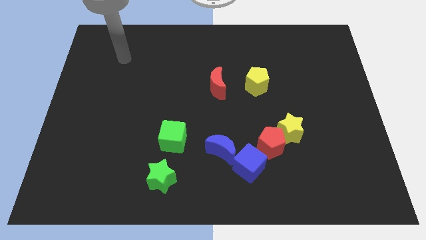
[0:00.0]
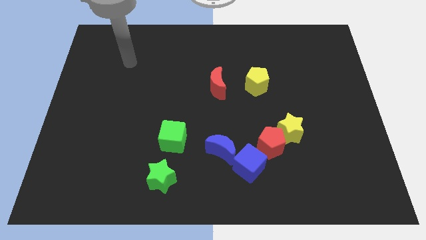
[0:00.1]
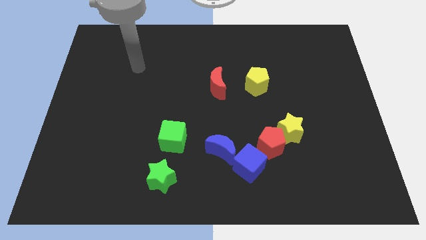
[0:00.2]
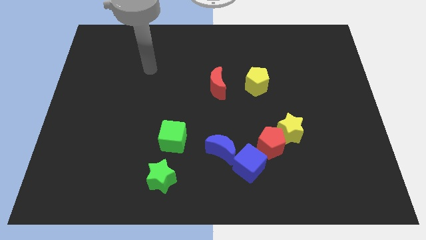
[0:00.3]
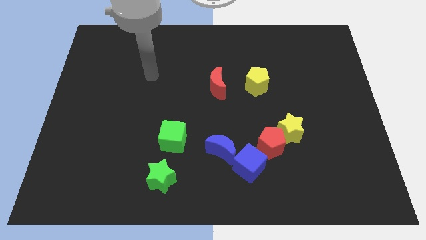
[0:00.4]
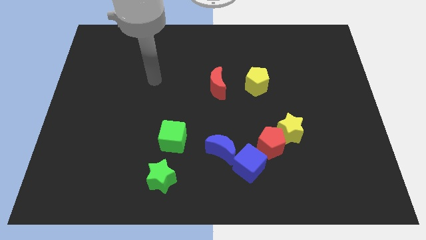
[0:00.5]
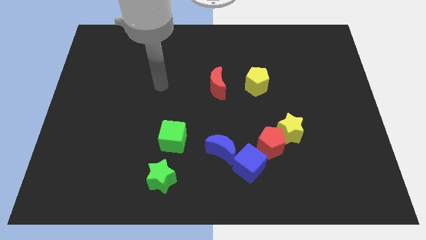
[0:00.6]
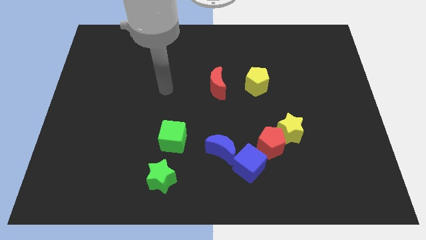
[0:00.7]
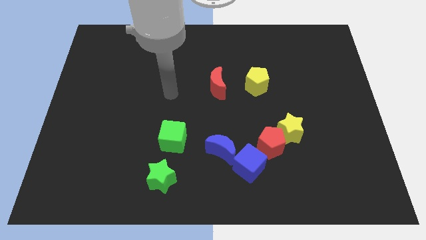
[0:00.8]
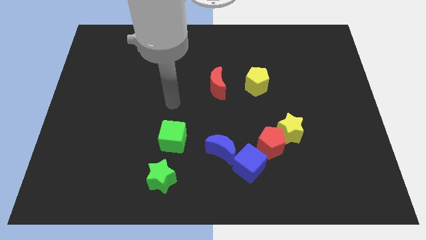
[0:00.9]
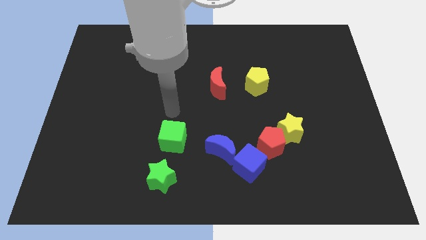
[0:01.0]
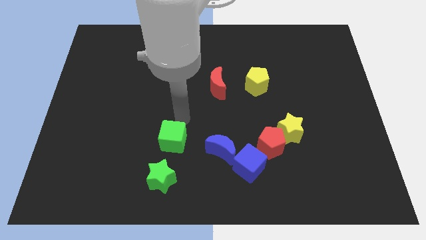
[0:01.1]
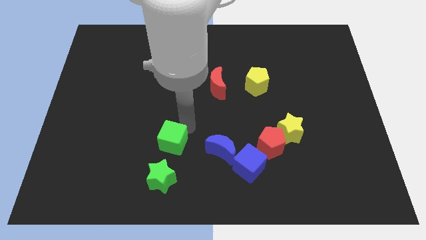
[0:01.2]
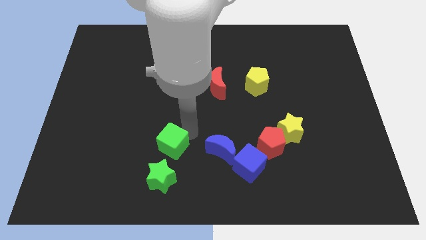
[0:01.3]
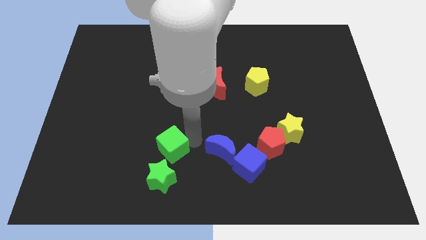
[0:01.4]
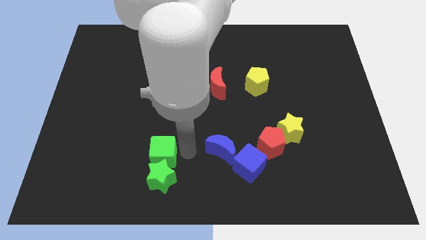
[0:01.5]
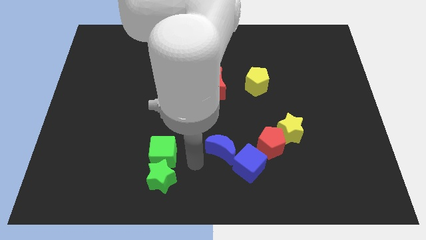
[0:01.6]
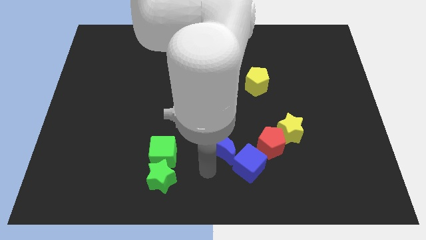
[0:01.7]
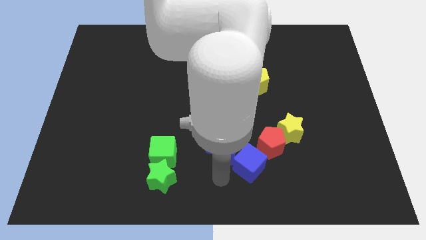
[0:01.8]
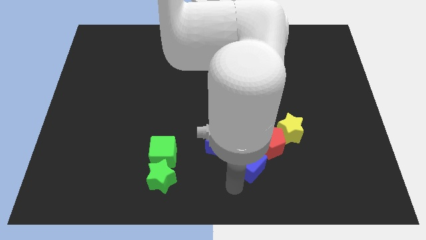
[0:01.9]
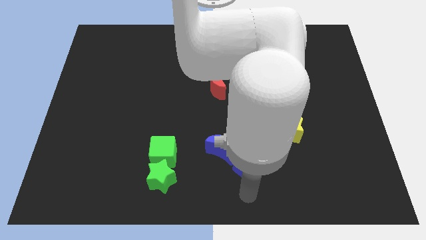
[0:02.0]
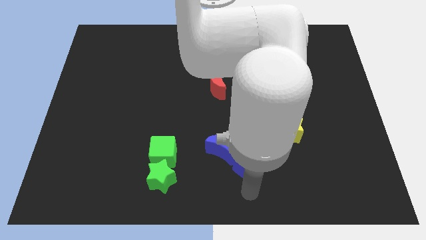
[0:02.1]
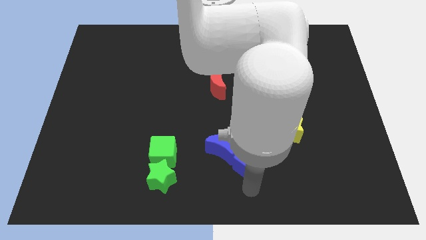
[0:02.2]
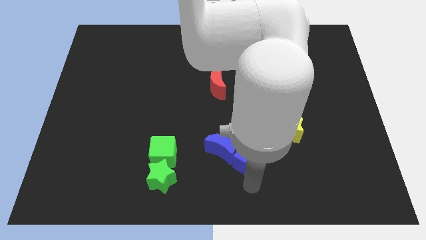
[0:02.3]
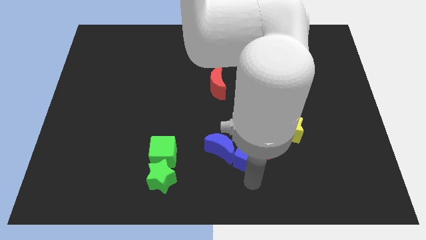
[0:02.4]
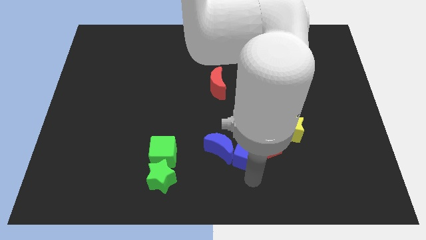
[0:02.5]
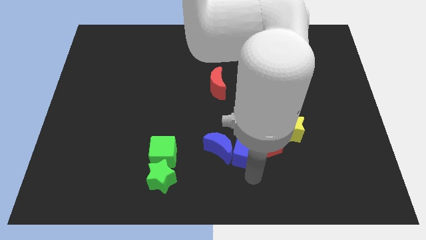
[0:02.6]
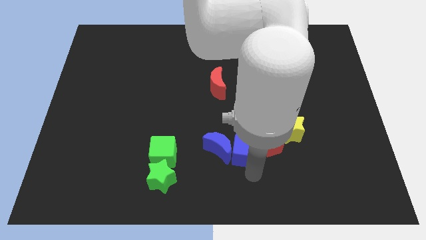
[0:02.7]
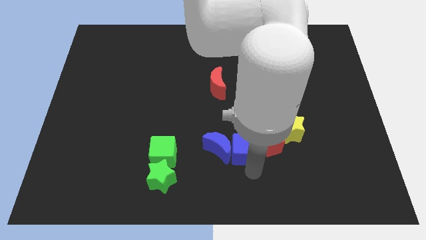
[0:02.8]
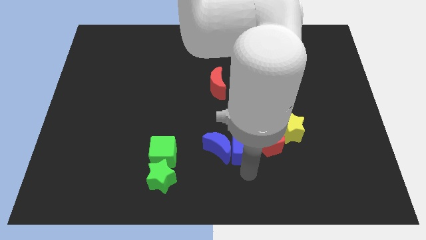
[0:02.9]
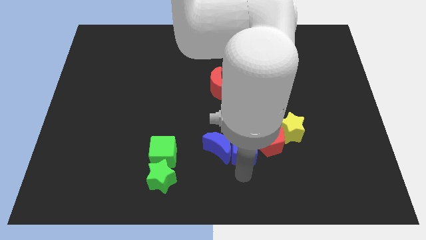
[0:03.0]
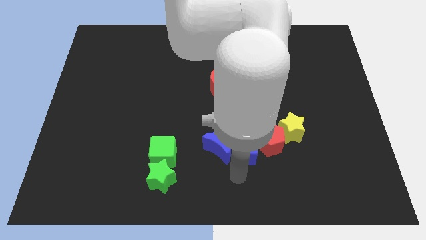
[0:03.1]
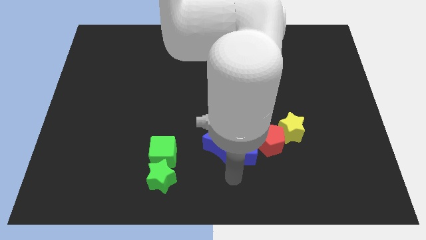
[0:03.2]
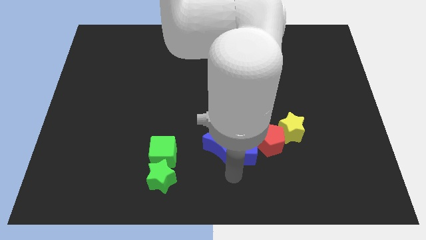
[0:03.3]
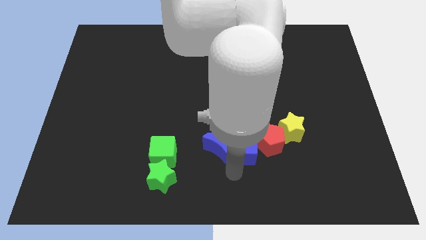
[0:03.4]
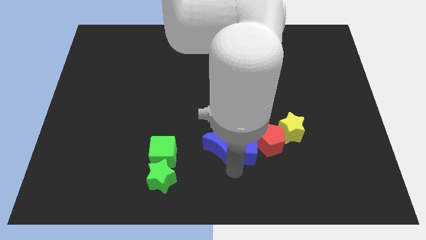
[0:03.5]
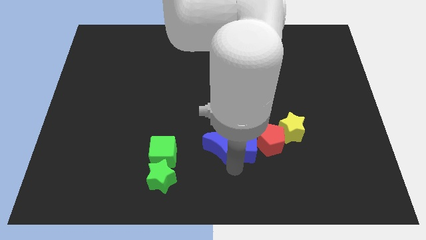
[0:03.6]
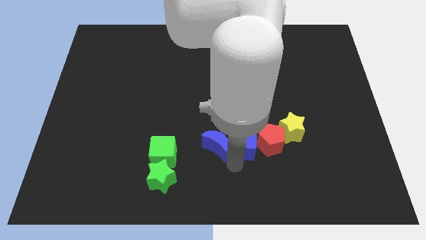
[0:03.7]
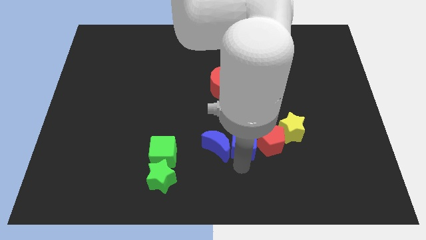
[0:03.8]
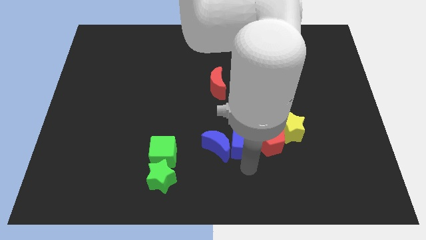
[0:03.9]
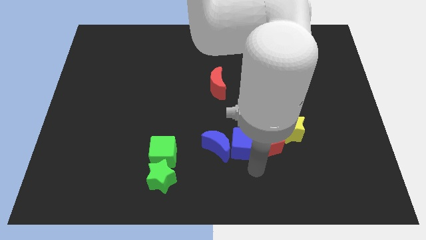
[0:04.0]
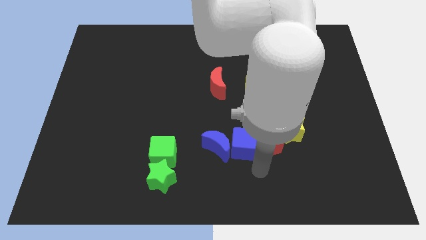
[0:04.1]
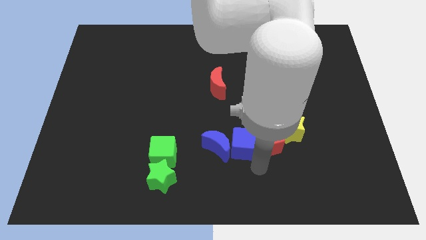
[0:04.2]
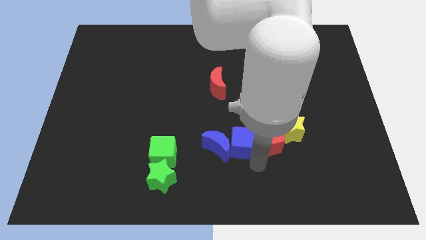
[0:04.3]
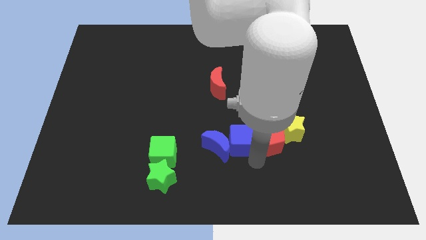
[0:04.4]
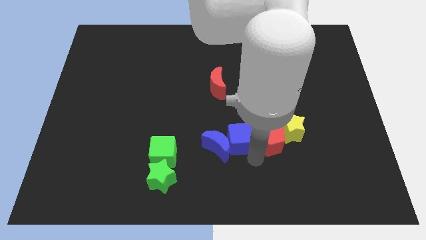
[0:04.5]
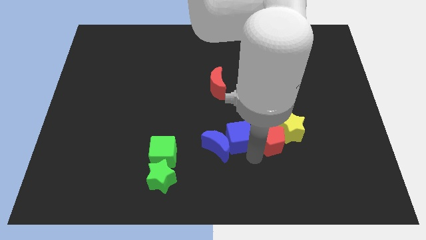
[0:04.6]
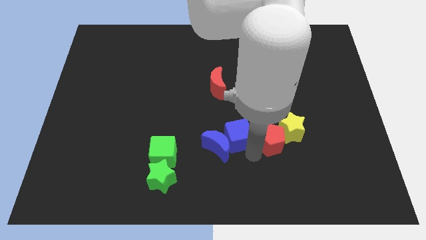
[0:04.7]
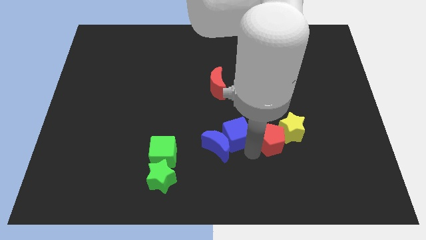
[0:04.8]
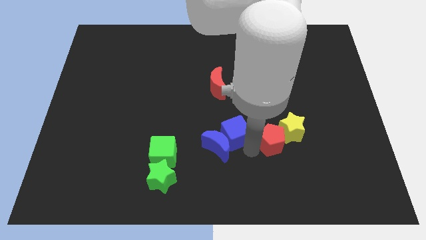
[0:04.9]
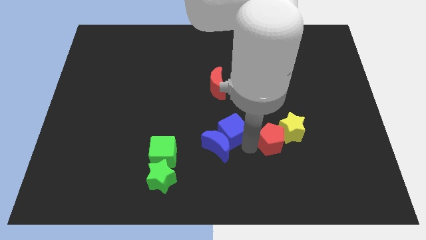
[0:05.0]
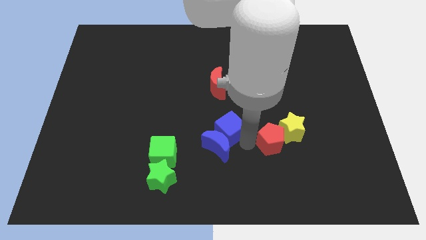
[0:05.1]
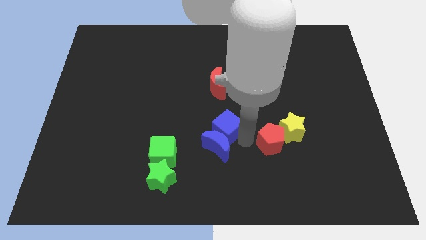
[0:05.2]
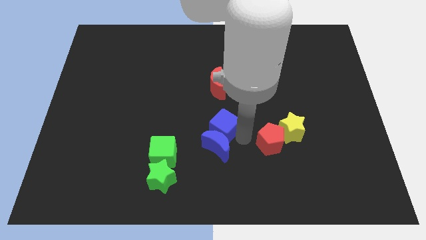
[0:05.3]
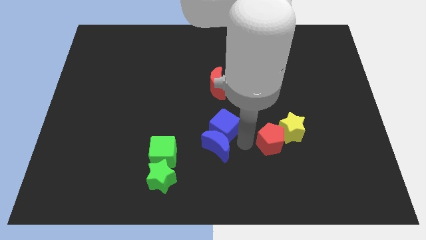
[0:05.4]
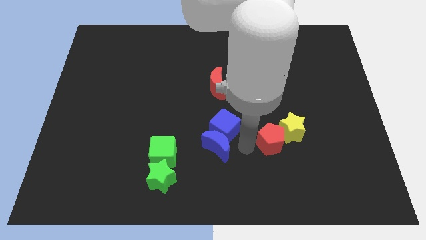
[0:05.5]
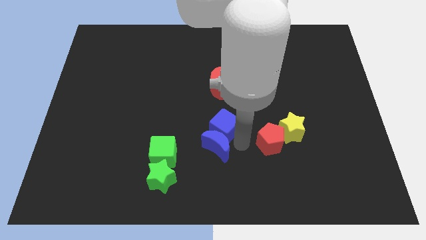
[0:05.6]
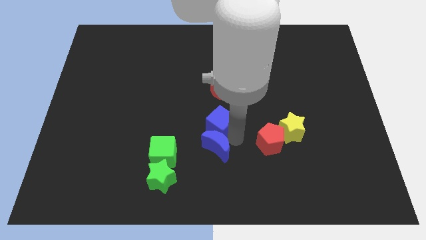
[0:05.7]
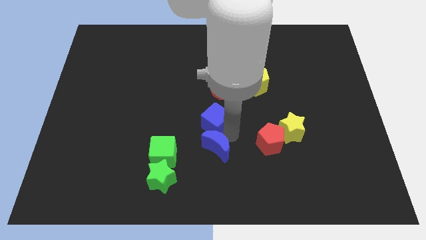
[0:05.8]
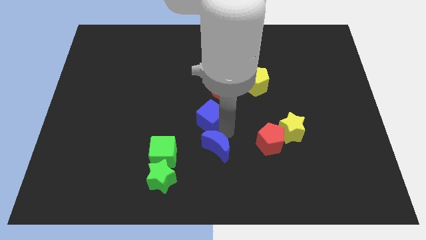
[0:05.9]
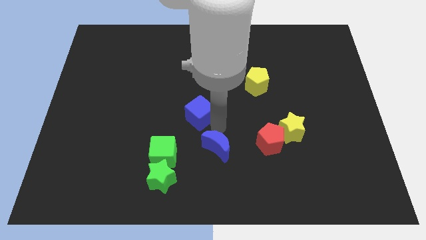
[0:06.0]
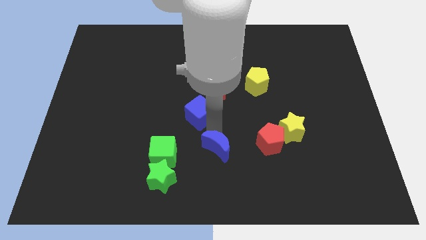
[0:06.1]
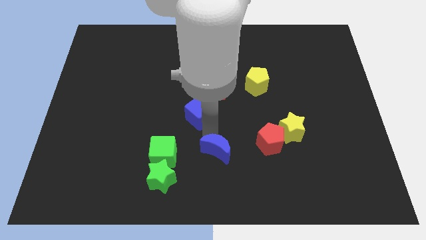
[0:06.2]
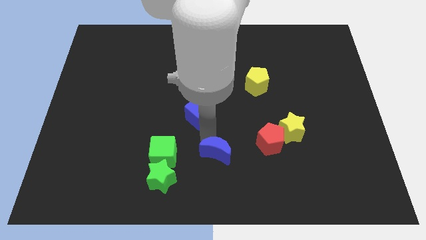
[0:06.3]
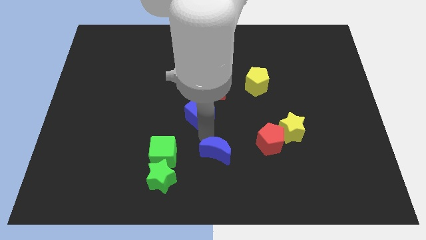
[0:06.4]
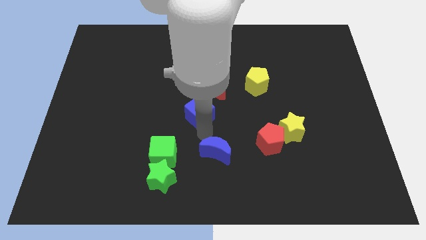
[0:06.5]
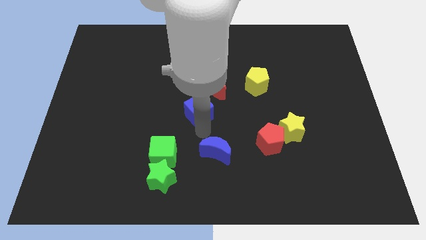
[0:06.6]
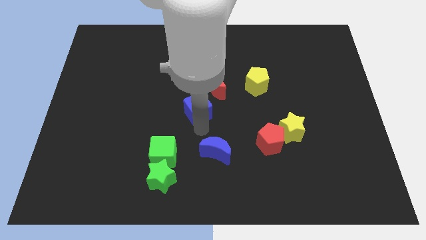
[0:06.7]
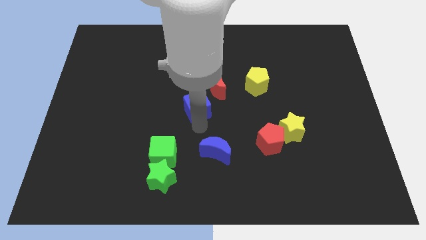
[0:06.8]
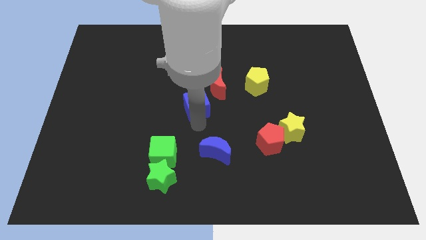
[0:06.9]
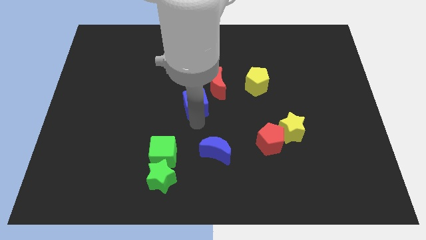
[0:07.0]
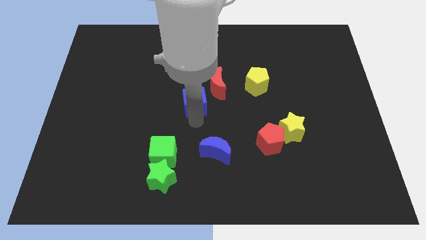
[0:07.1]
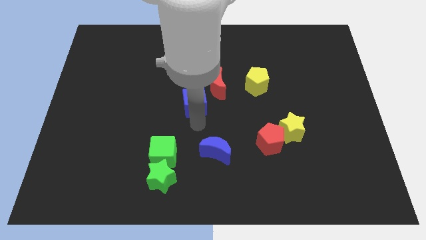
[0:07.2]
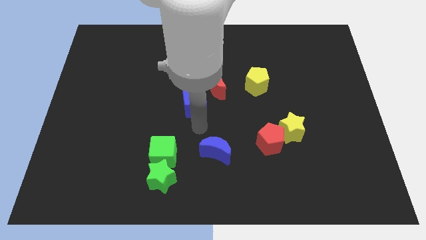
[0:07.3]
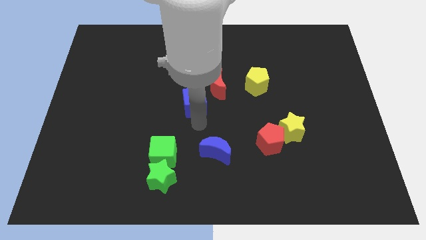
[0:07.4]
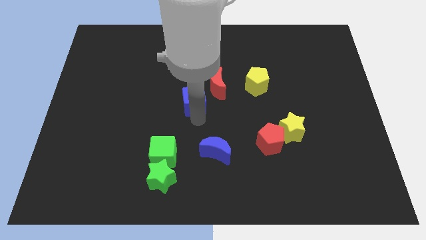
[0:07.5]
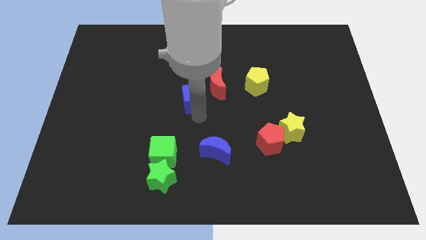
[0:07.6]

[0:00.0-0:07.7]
push the blue cube just left of the red moon
